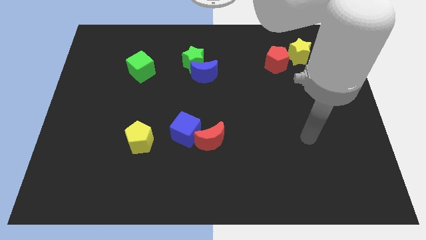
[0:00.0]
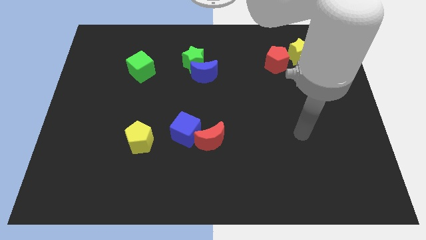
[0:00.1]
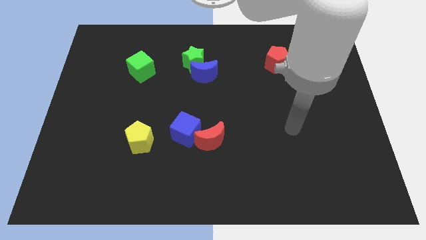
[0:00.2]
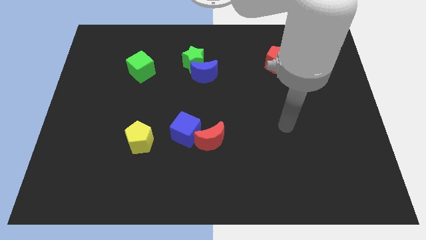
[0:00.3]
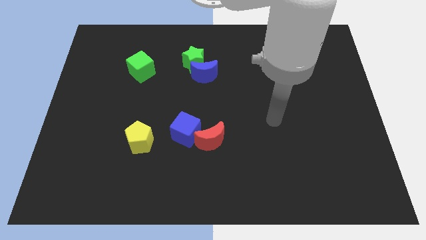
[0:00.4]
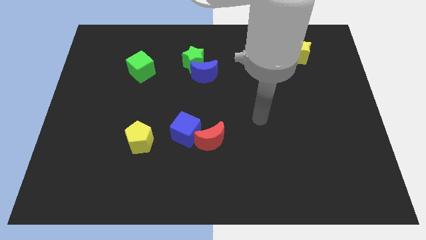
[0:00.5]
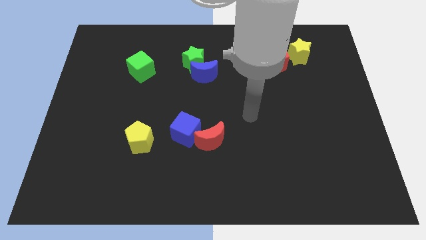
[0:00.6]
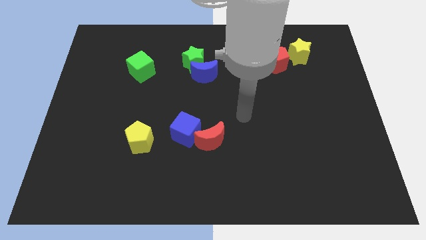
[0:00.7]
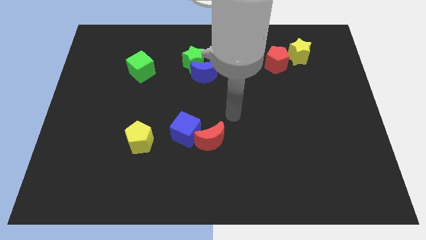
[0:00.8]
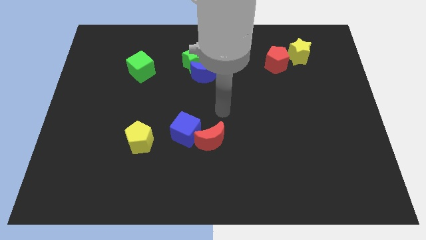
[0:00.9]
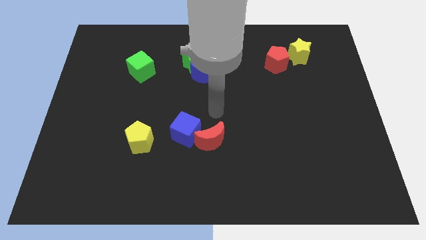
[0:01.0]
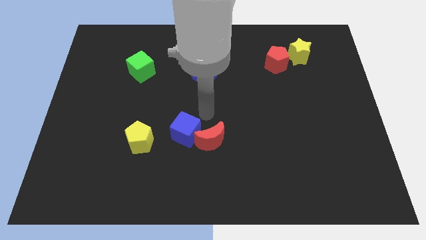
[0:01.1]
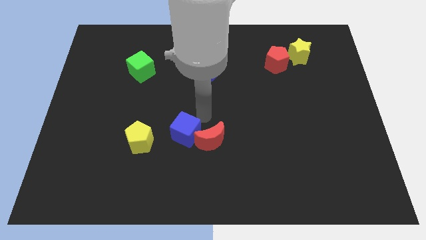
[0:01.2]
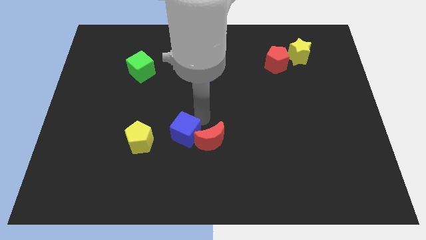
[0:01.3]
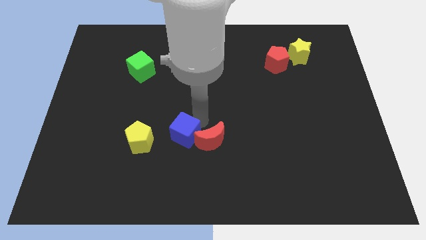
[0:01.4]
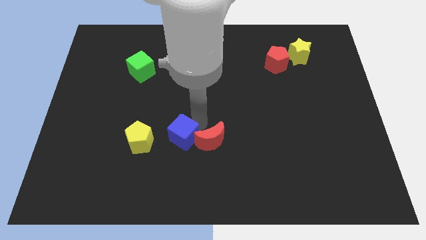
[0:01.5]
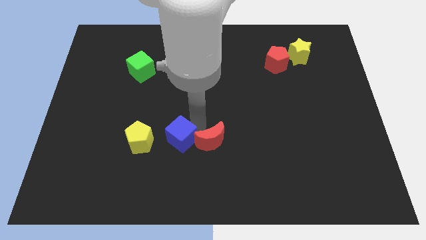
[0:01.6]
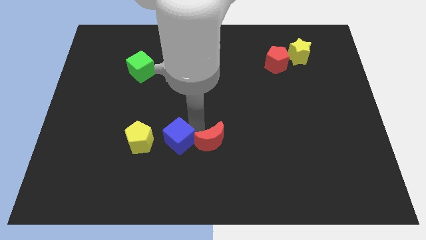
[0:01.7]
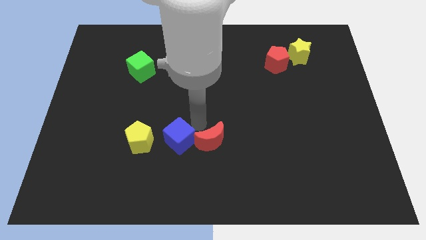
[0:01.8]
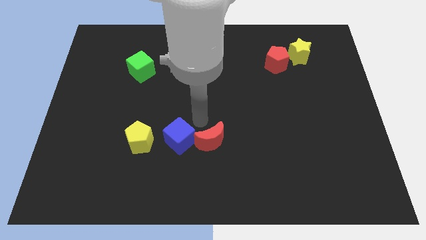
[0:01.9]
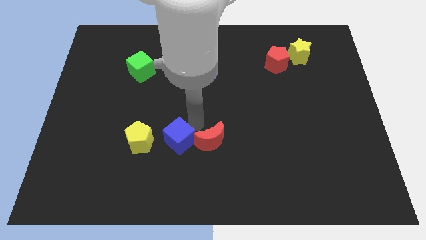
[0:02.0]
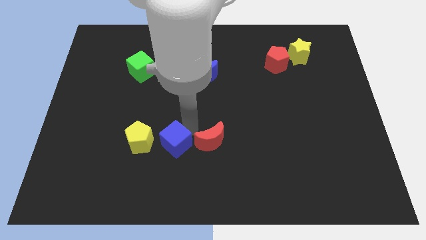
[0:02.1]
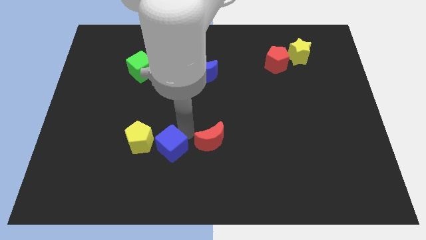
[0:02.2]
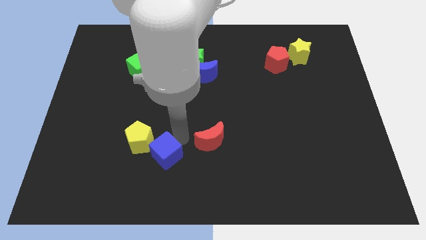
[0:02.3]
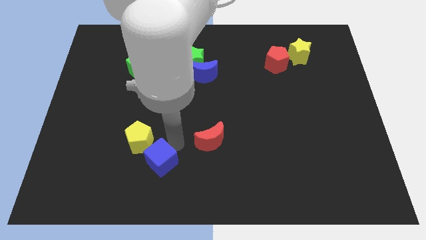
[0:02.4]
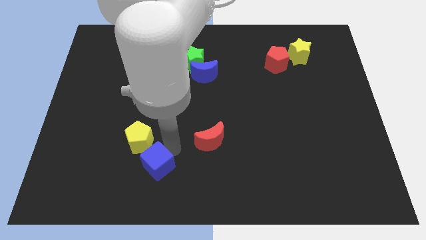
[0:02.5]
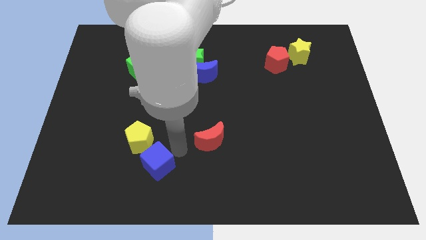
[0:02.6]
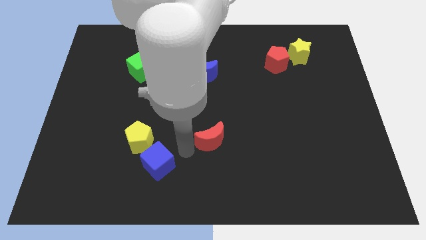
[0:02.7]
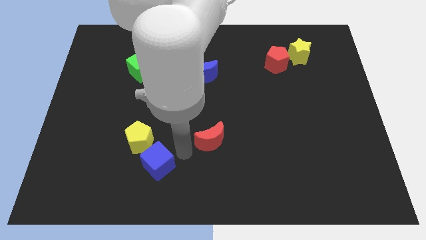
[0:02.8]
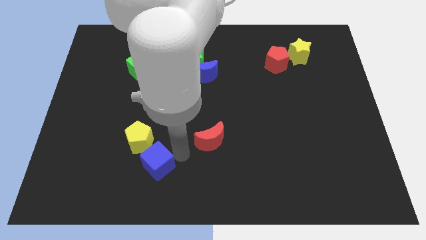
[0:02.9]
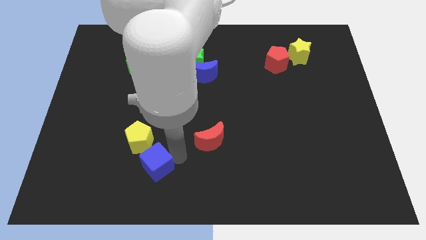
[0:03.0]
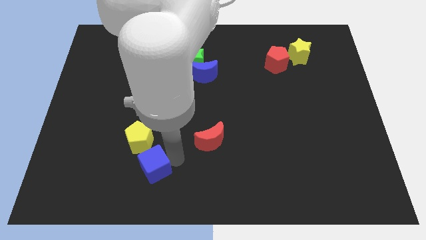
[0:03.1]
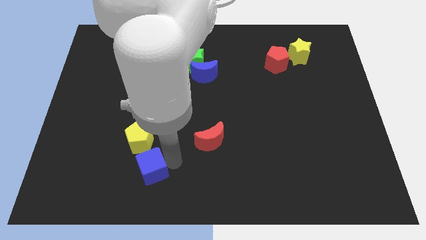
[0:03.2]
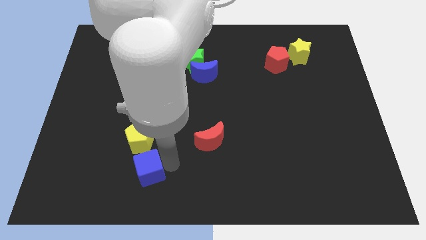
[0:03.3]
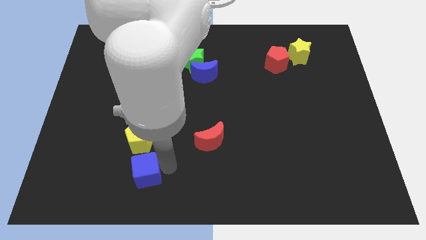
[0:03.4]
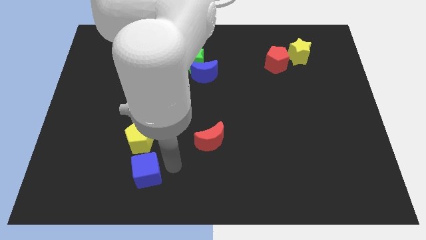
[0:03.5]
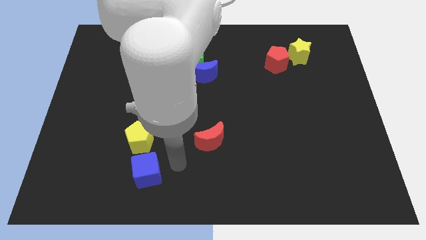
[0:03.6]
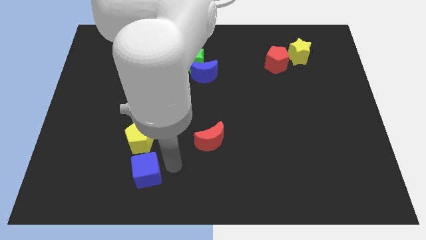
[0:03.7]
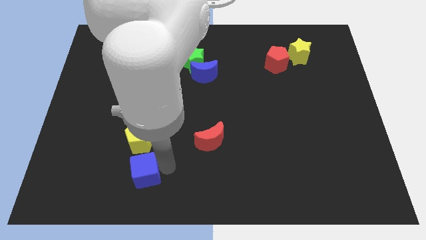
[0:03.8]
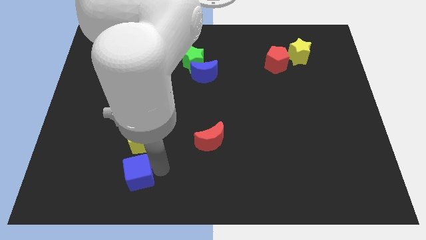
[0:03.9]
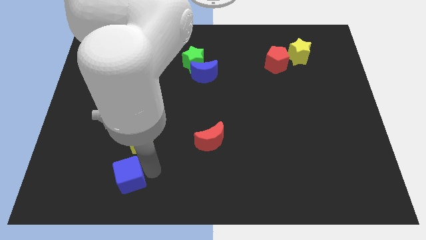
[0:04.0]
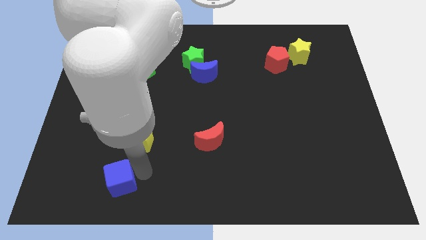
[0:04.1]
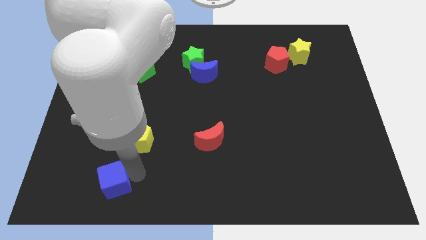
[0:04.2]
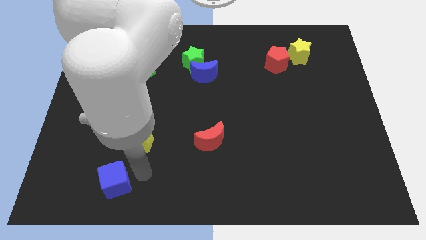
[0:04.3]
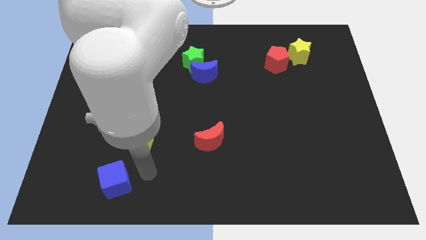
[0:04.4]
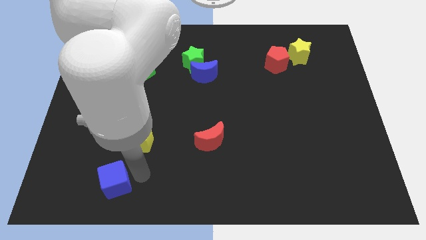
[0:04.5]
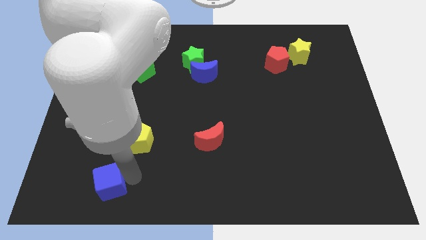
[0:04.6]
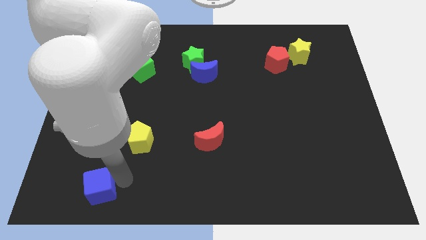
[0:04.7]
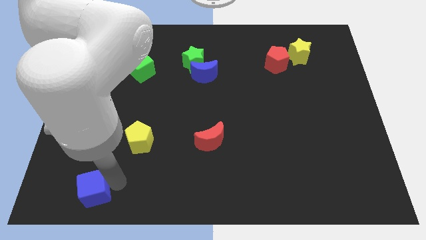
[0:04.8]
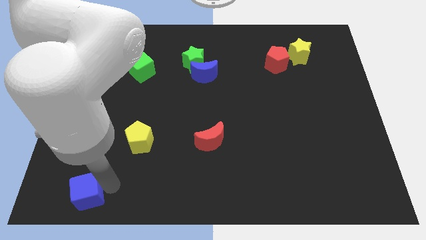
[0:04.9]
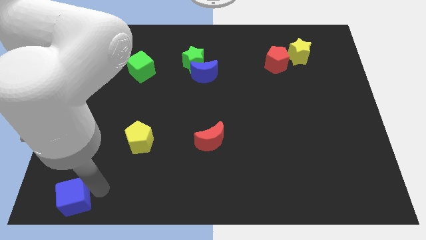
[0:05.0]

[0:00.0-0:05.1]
move the blue cube to the lower left corner

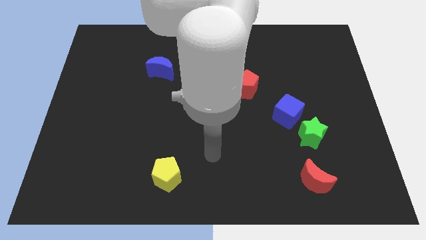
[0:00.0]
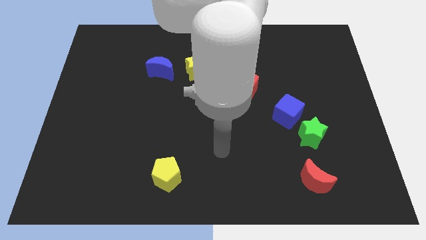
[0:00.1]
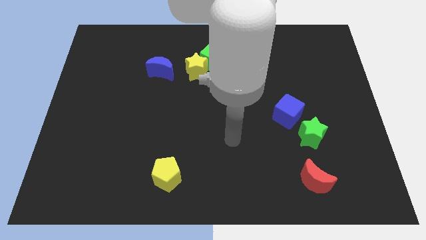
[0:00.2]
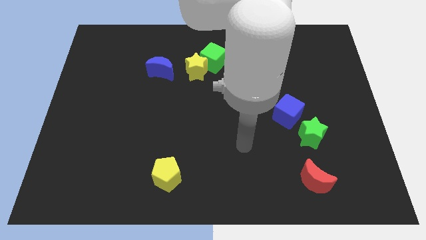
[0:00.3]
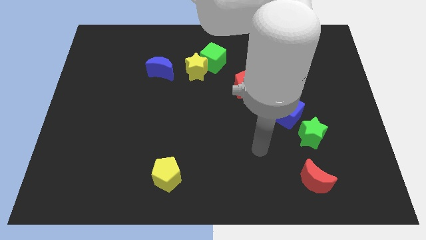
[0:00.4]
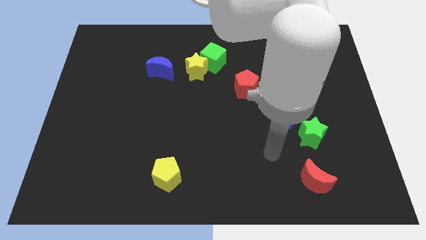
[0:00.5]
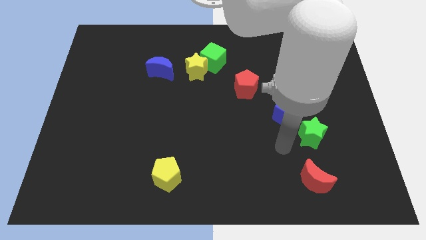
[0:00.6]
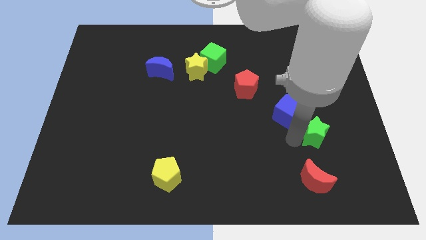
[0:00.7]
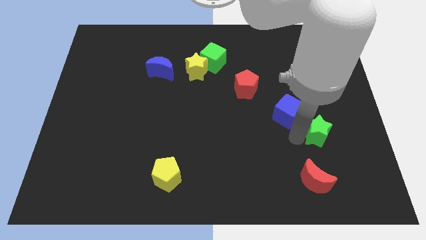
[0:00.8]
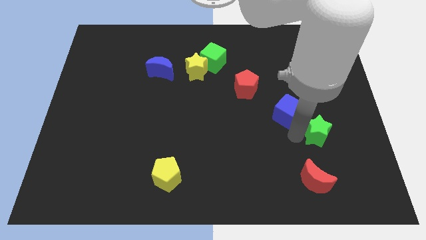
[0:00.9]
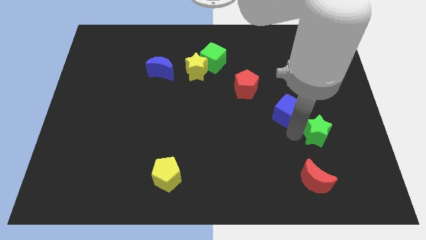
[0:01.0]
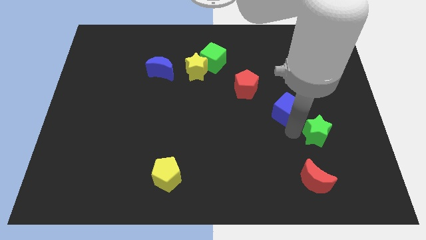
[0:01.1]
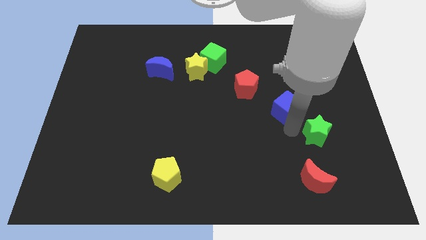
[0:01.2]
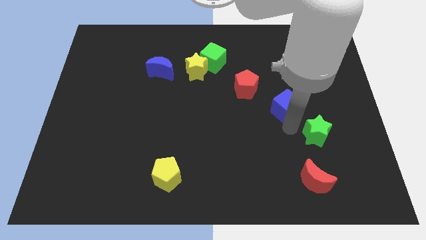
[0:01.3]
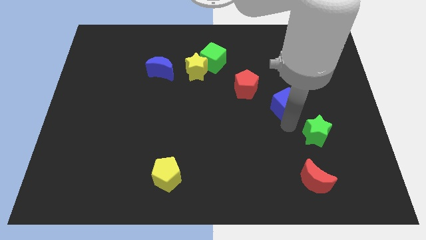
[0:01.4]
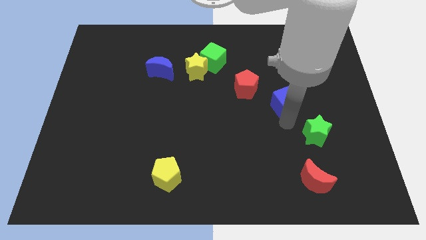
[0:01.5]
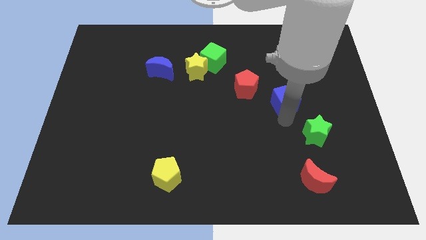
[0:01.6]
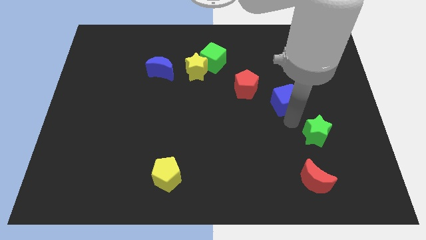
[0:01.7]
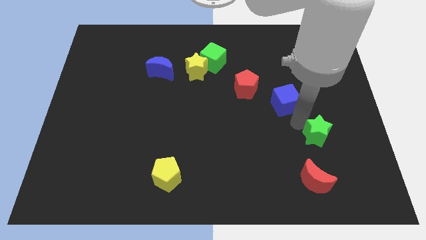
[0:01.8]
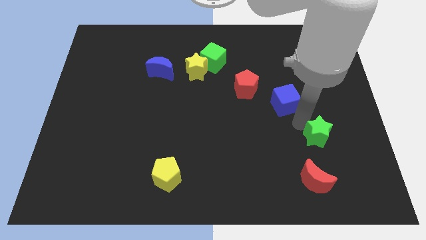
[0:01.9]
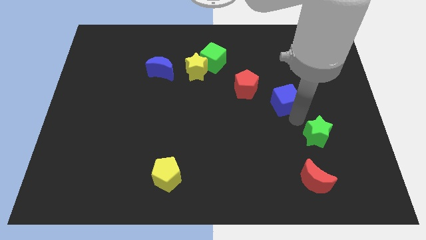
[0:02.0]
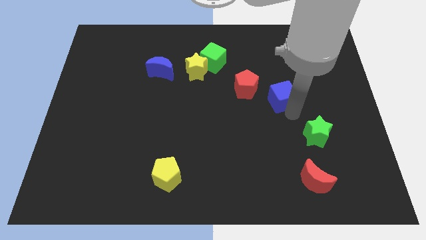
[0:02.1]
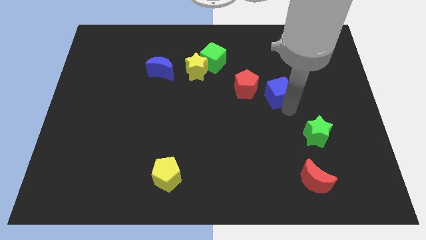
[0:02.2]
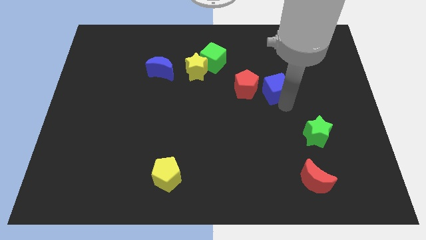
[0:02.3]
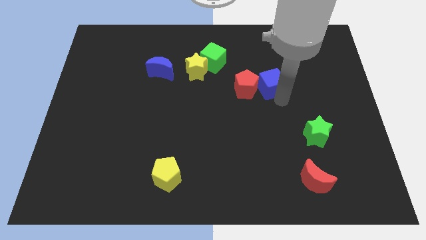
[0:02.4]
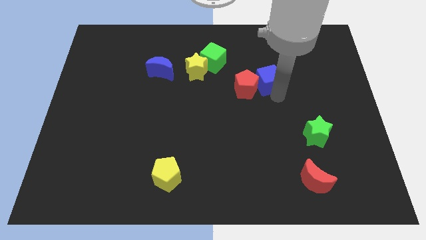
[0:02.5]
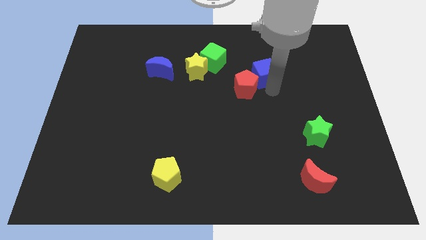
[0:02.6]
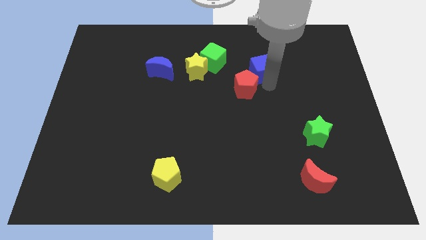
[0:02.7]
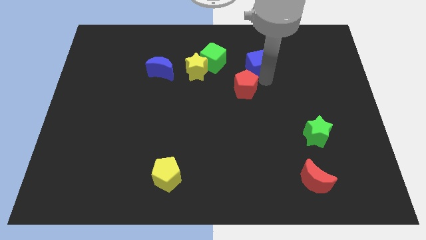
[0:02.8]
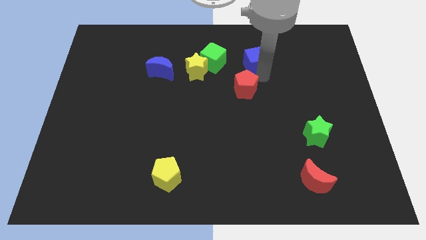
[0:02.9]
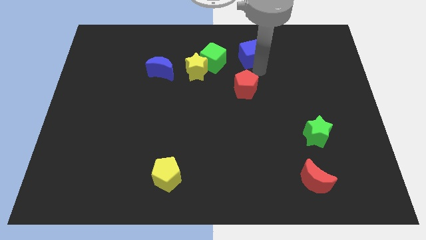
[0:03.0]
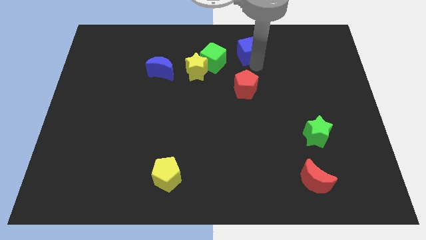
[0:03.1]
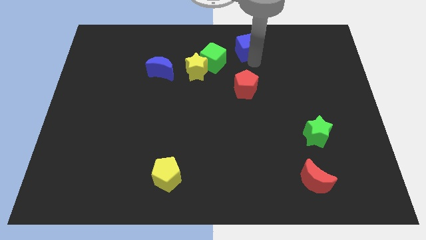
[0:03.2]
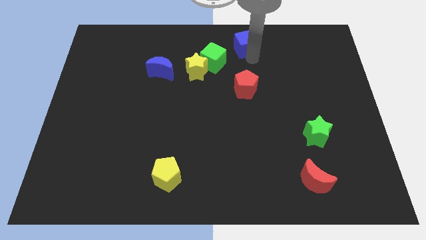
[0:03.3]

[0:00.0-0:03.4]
move the blue cube to the top side
